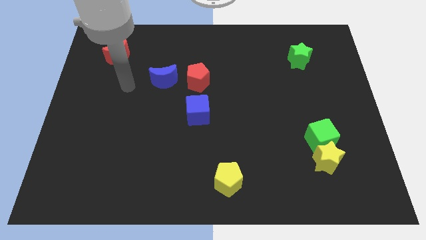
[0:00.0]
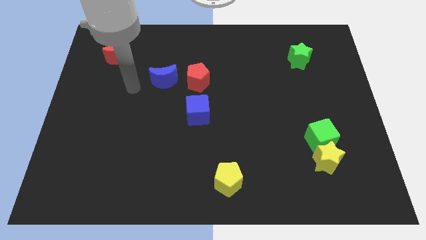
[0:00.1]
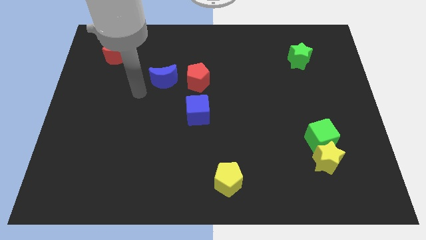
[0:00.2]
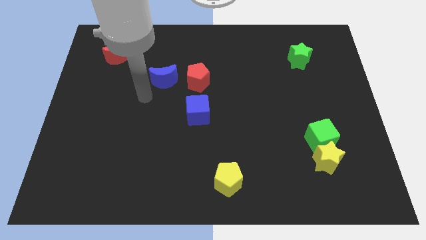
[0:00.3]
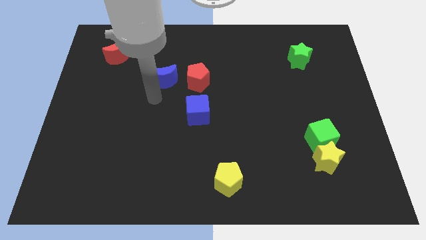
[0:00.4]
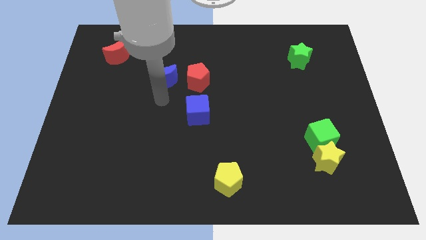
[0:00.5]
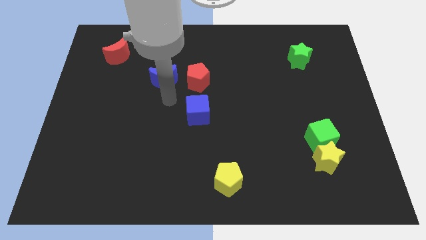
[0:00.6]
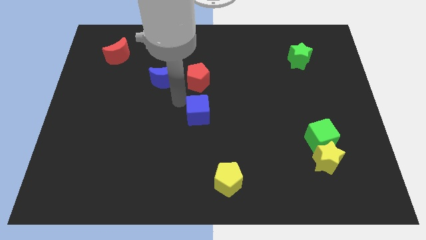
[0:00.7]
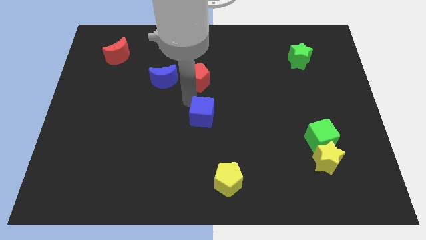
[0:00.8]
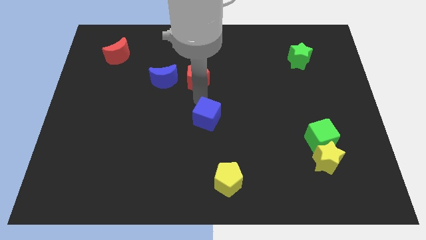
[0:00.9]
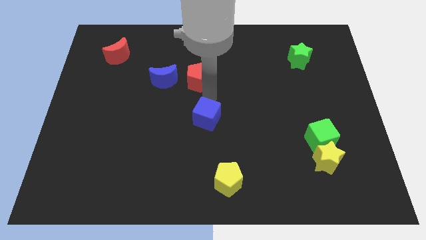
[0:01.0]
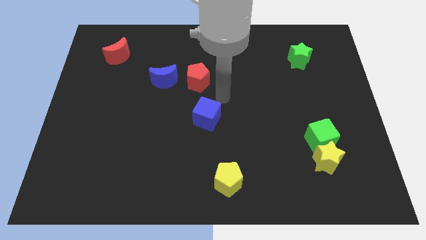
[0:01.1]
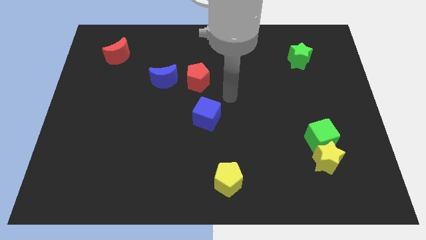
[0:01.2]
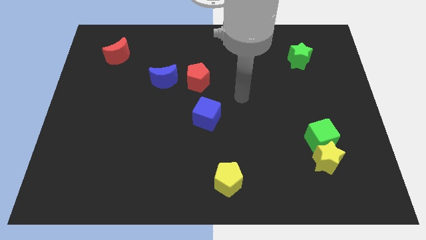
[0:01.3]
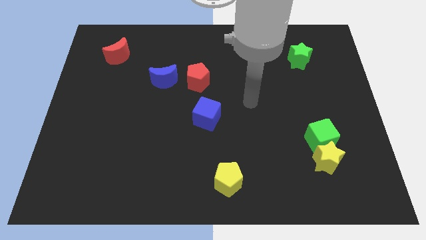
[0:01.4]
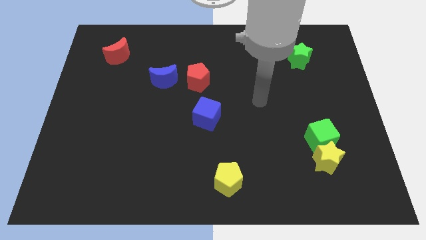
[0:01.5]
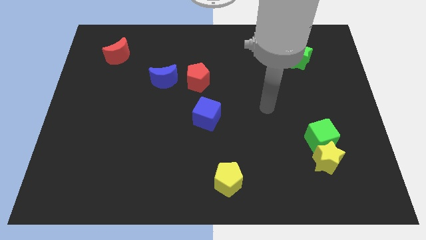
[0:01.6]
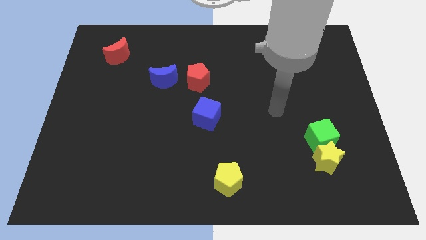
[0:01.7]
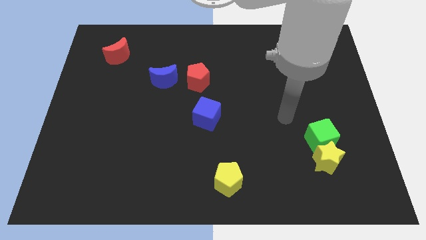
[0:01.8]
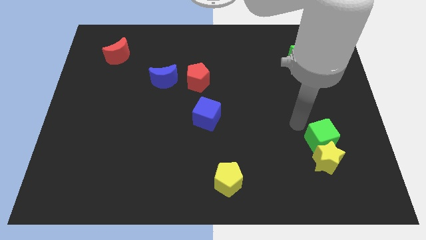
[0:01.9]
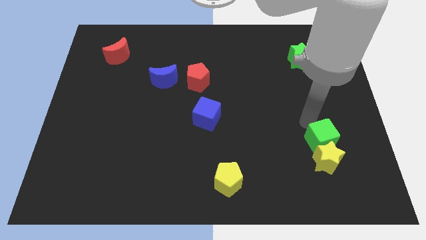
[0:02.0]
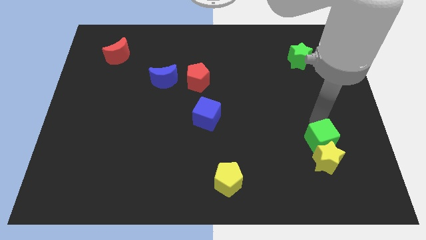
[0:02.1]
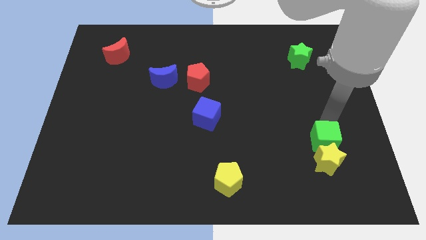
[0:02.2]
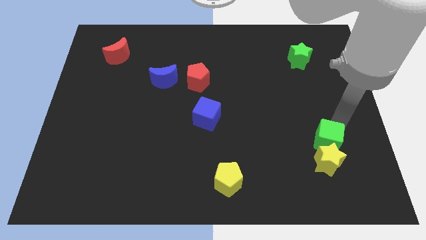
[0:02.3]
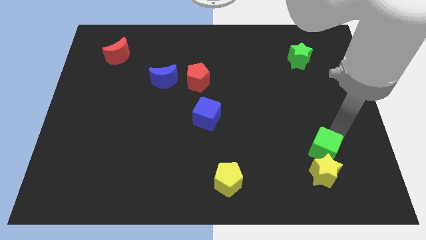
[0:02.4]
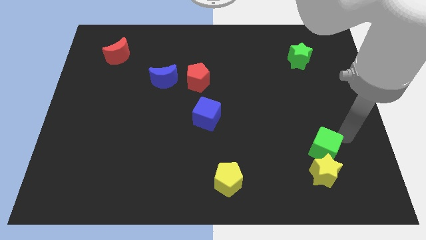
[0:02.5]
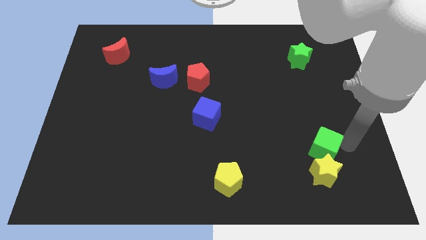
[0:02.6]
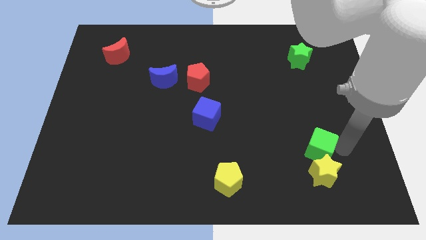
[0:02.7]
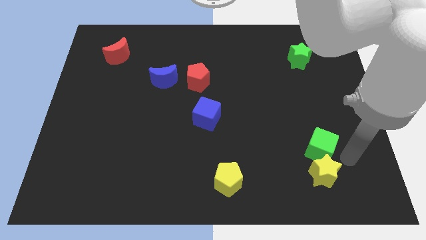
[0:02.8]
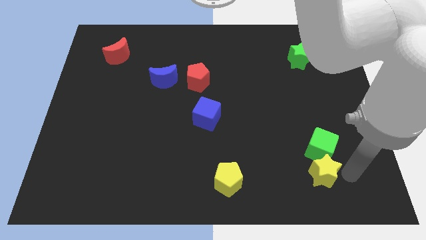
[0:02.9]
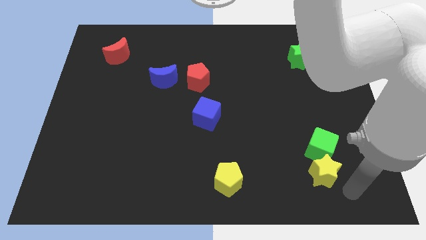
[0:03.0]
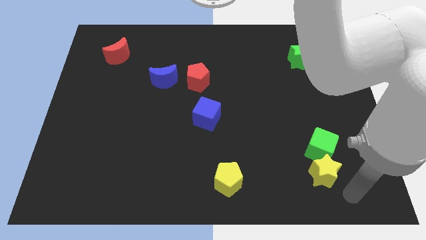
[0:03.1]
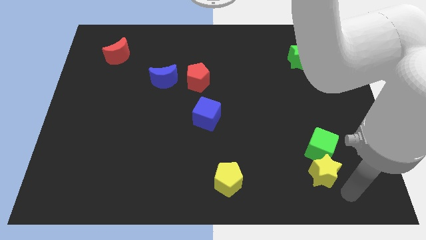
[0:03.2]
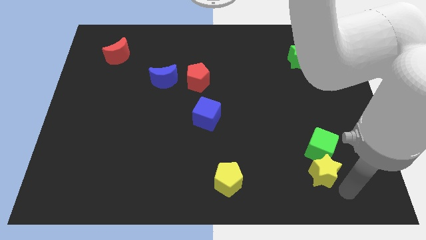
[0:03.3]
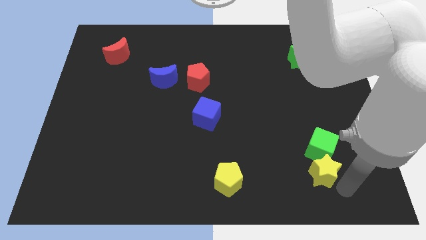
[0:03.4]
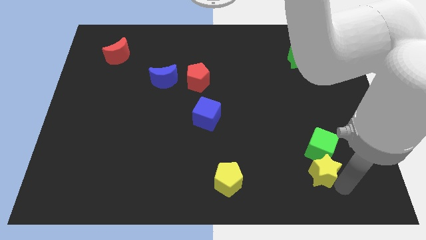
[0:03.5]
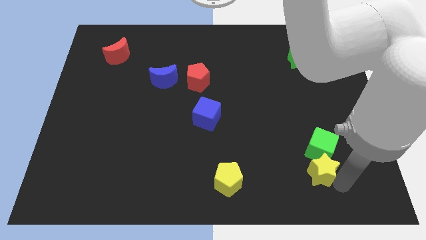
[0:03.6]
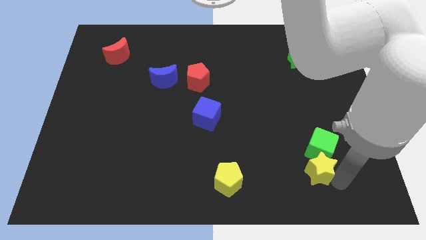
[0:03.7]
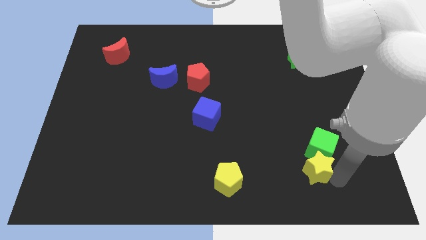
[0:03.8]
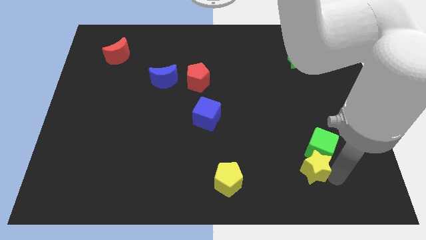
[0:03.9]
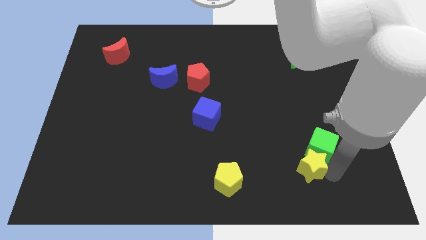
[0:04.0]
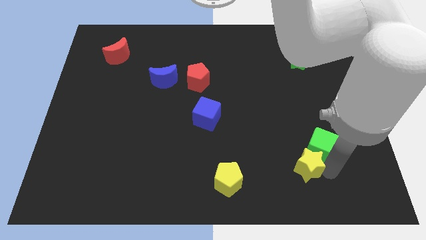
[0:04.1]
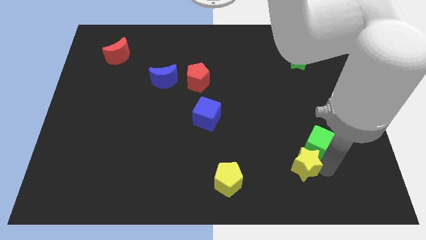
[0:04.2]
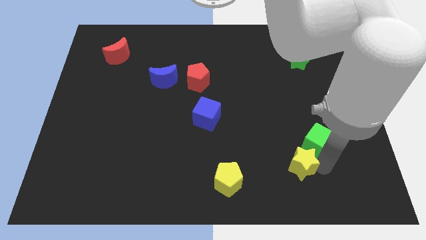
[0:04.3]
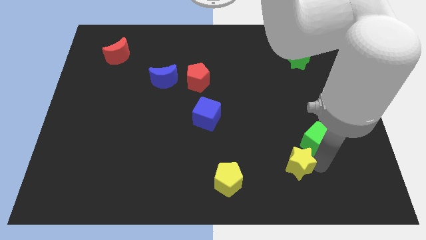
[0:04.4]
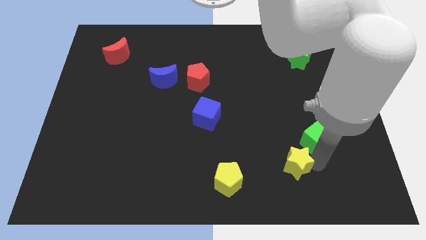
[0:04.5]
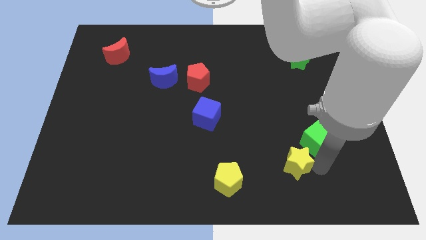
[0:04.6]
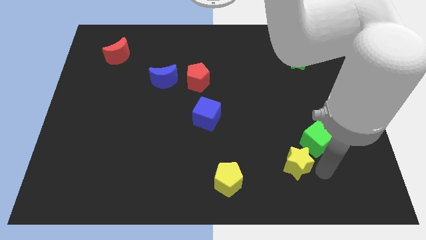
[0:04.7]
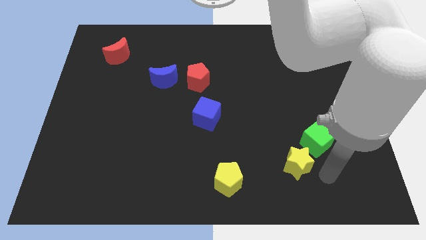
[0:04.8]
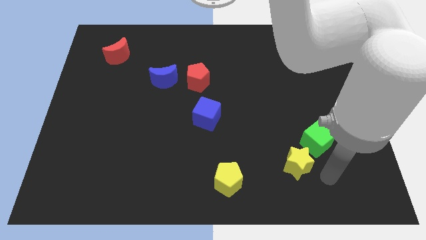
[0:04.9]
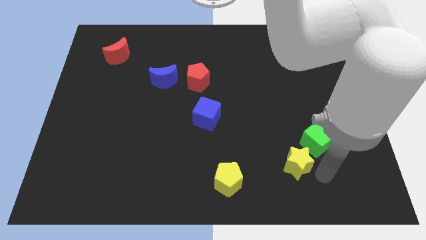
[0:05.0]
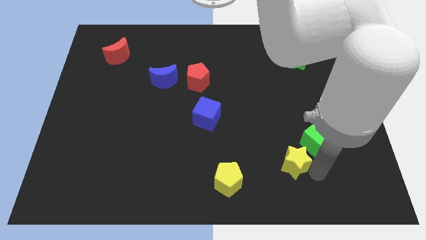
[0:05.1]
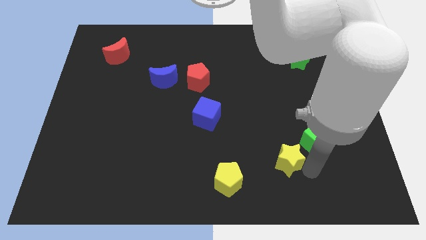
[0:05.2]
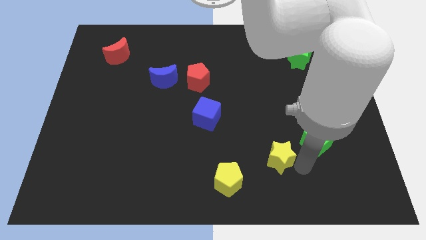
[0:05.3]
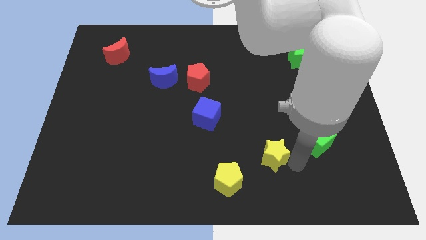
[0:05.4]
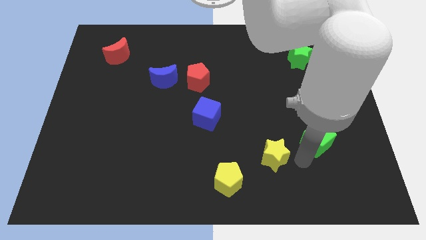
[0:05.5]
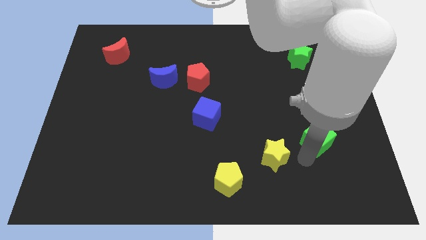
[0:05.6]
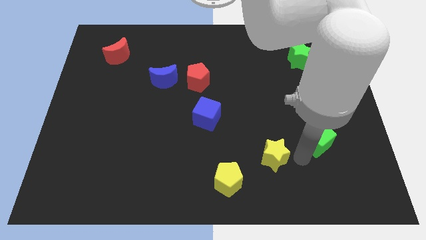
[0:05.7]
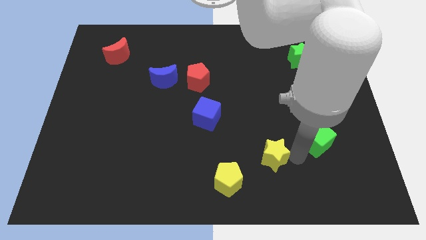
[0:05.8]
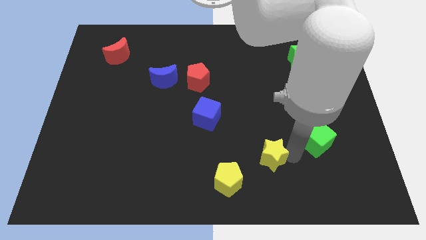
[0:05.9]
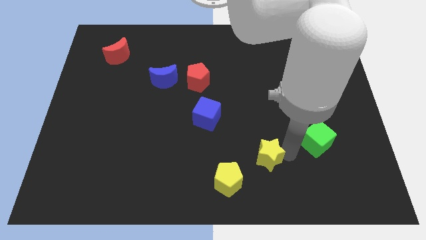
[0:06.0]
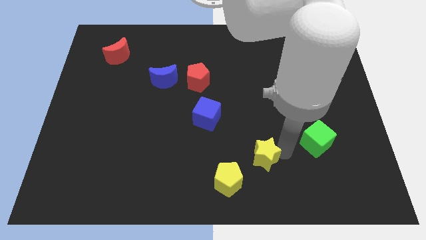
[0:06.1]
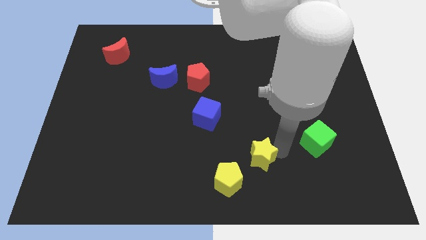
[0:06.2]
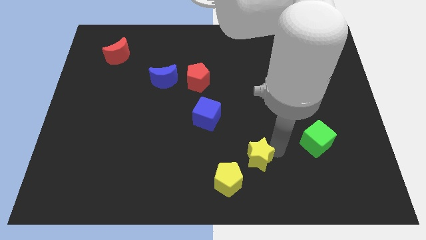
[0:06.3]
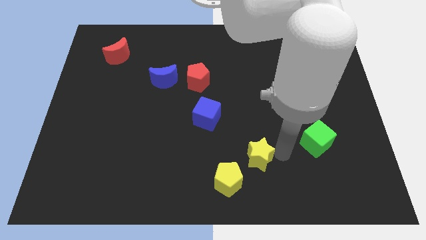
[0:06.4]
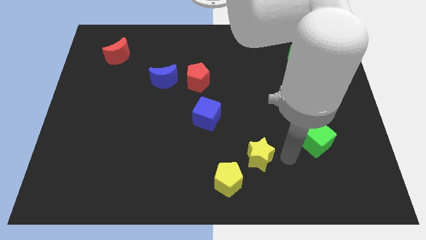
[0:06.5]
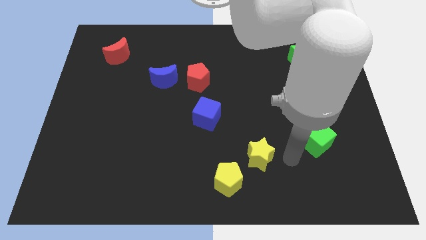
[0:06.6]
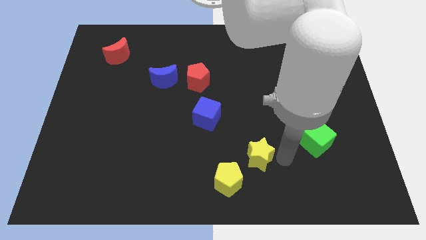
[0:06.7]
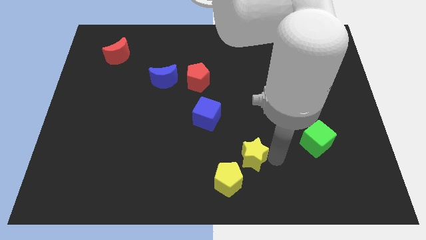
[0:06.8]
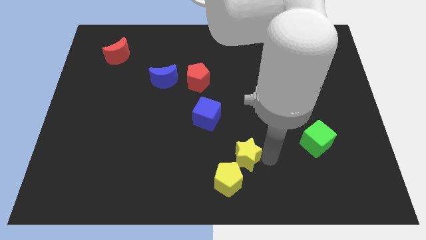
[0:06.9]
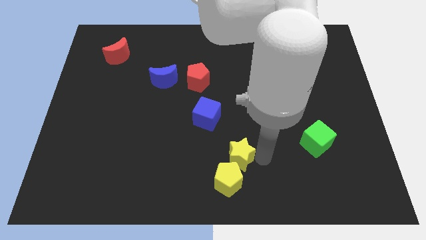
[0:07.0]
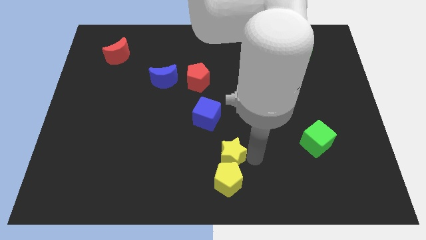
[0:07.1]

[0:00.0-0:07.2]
push the yellow star left

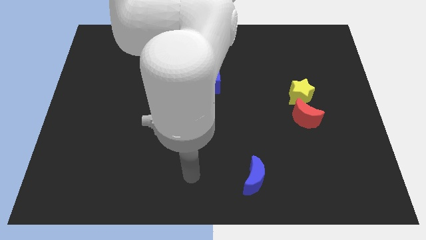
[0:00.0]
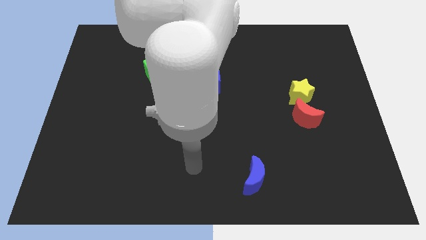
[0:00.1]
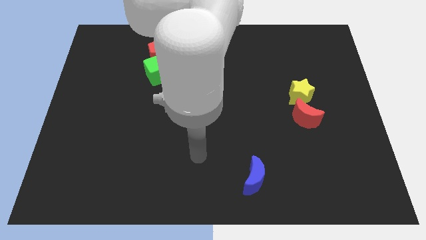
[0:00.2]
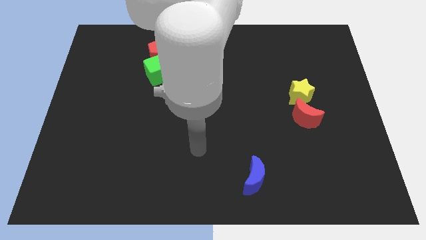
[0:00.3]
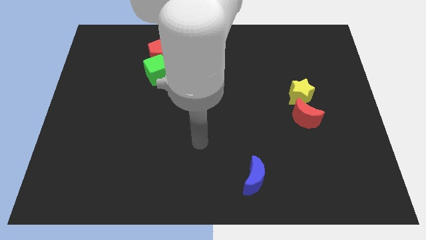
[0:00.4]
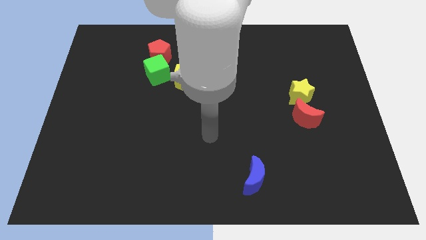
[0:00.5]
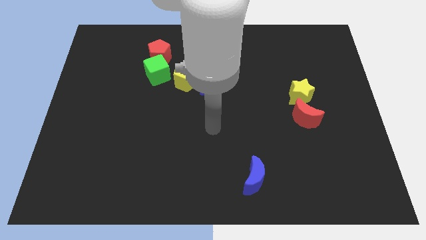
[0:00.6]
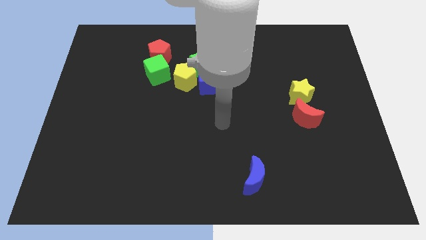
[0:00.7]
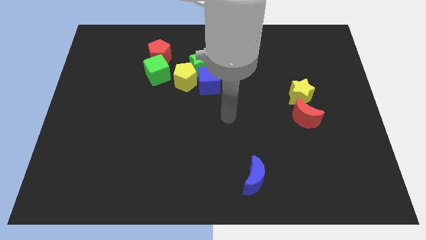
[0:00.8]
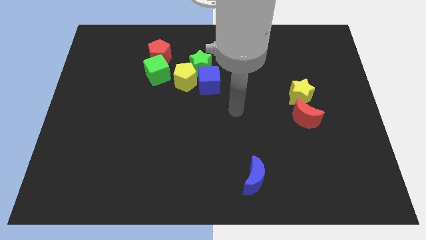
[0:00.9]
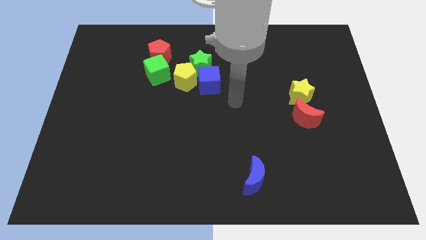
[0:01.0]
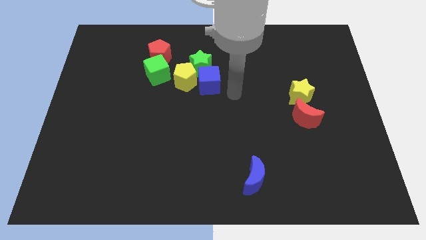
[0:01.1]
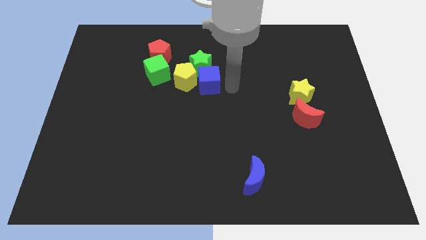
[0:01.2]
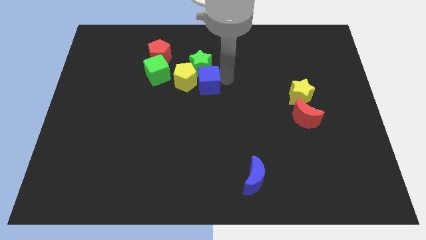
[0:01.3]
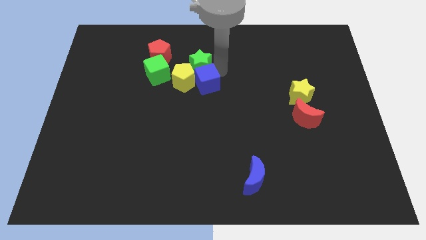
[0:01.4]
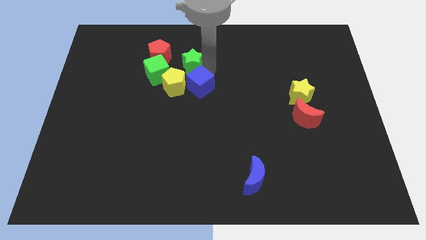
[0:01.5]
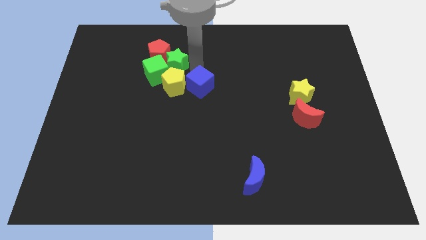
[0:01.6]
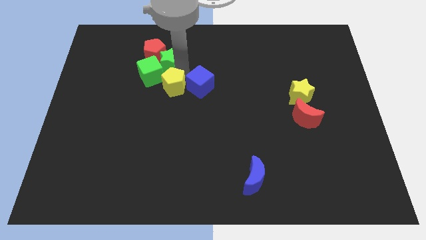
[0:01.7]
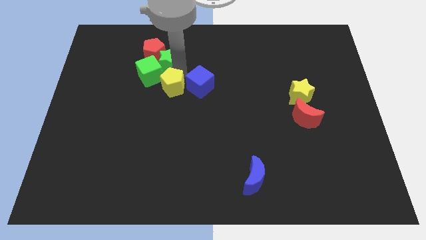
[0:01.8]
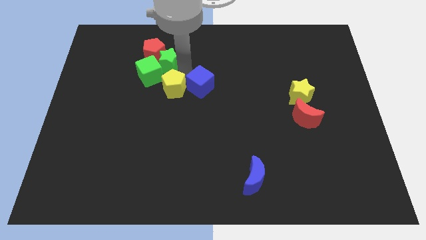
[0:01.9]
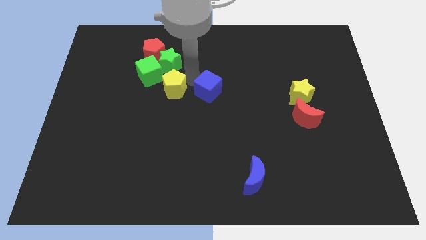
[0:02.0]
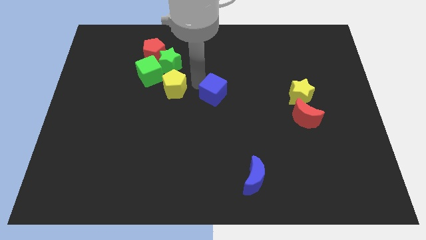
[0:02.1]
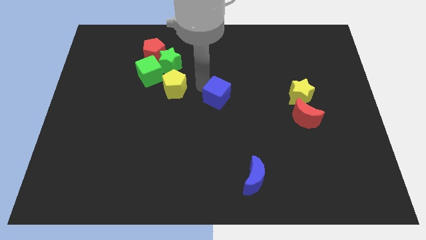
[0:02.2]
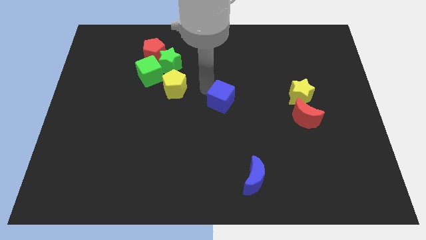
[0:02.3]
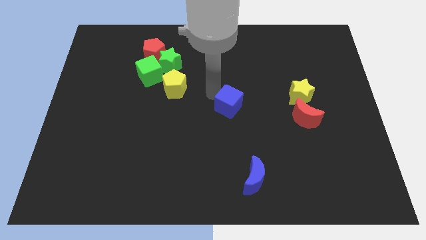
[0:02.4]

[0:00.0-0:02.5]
slightly move the blue cube downwards and right diagonally
